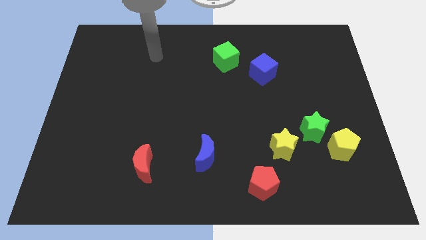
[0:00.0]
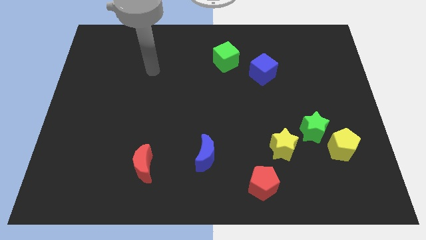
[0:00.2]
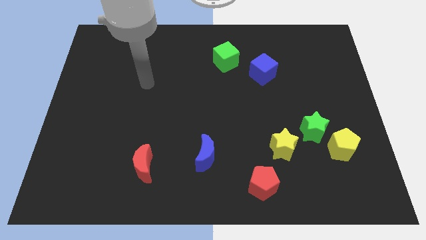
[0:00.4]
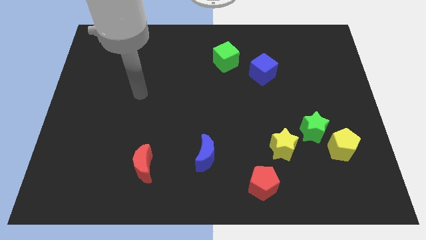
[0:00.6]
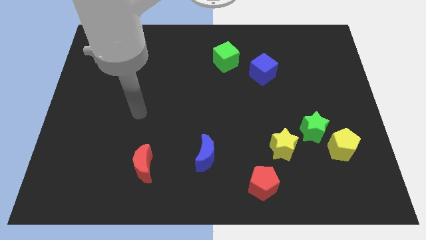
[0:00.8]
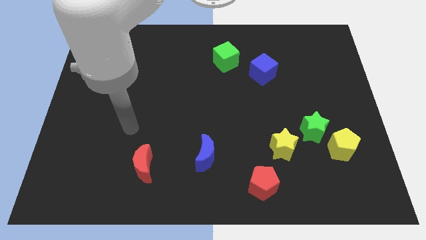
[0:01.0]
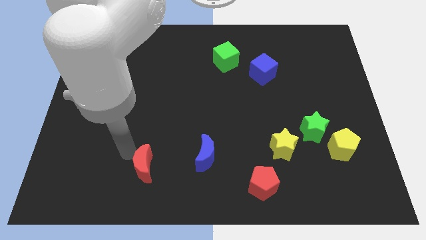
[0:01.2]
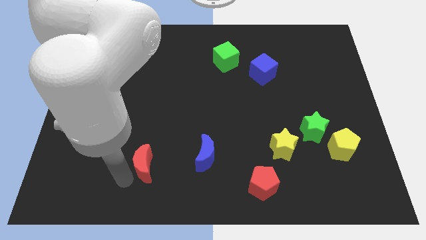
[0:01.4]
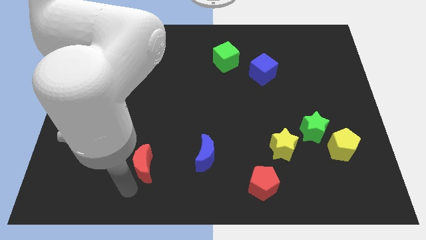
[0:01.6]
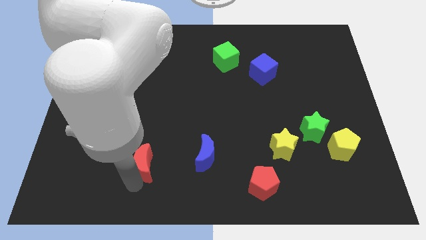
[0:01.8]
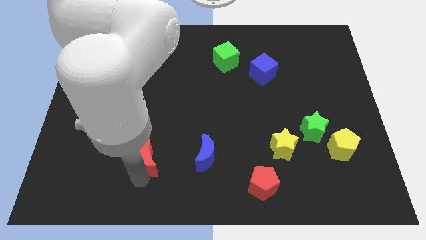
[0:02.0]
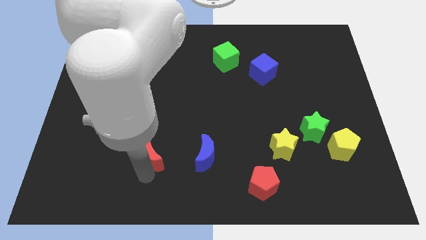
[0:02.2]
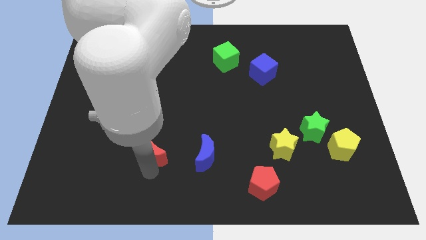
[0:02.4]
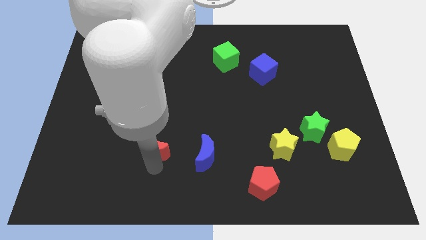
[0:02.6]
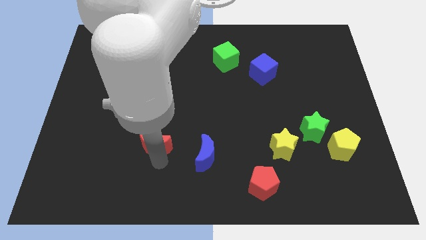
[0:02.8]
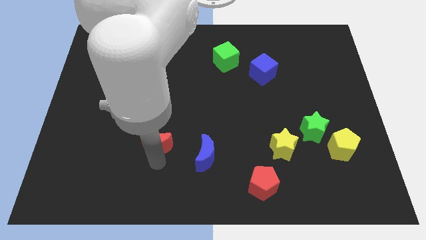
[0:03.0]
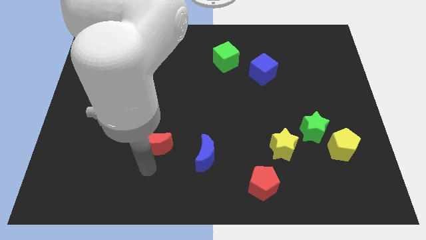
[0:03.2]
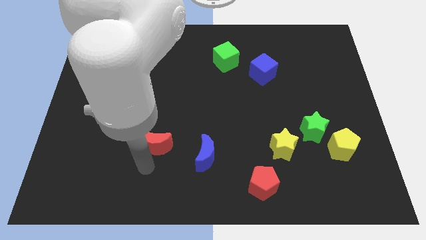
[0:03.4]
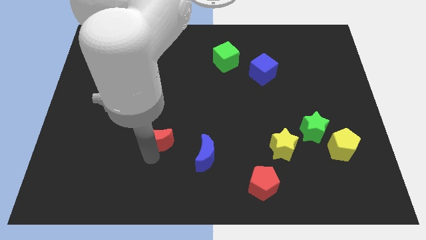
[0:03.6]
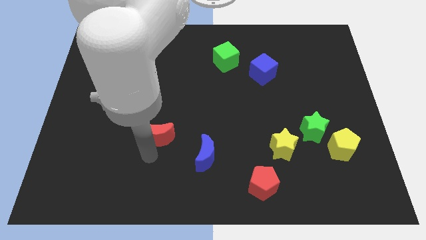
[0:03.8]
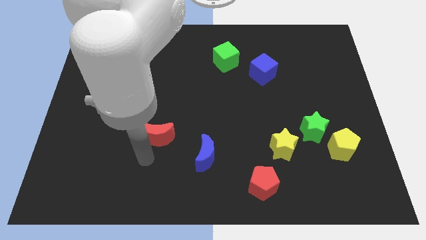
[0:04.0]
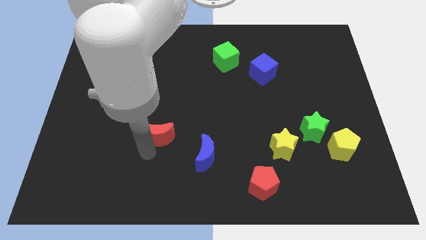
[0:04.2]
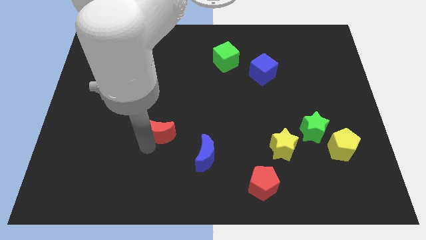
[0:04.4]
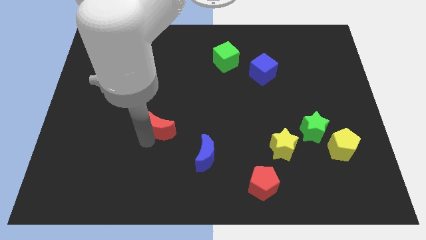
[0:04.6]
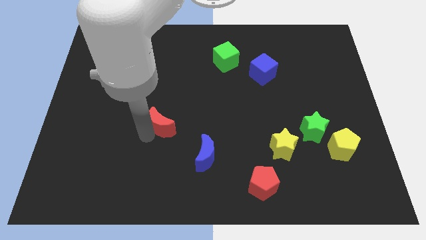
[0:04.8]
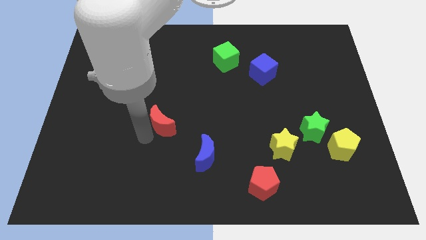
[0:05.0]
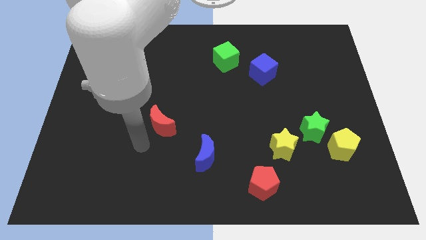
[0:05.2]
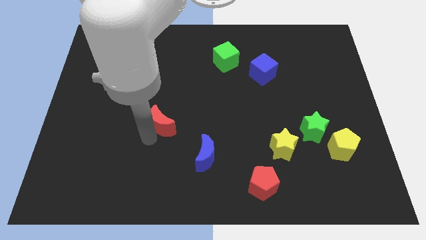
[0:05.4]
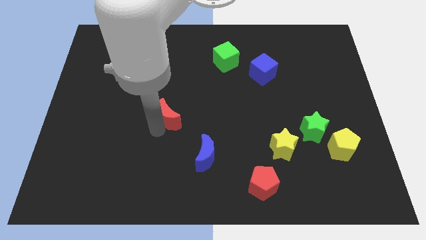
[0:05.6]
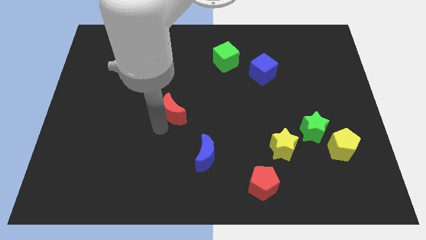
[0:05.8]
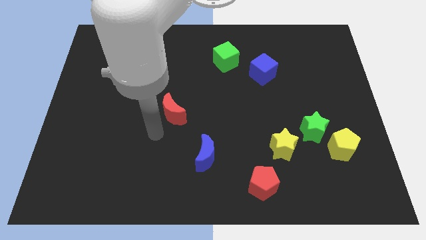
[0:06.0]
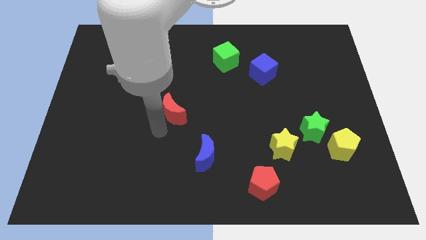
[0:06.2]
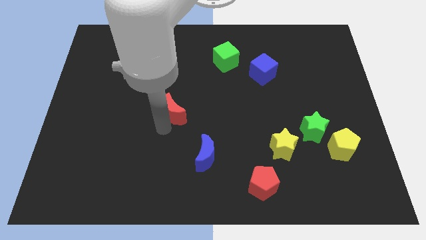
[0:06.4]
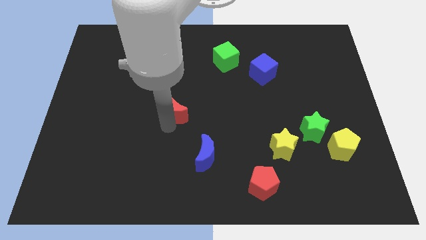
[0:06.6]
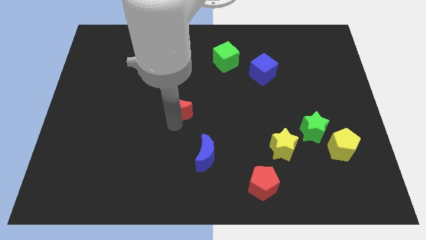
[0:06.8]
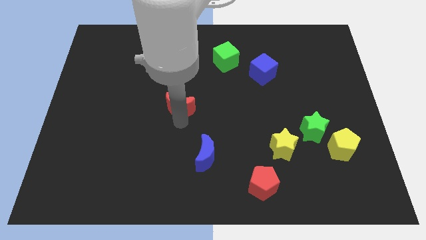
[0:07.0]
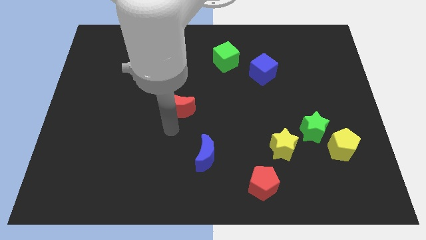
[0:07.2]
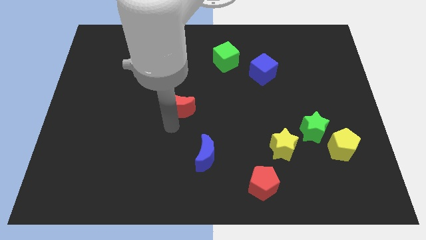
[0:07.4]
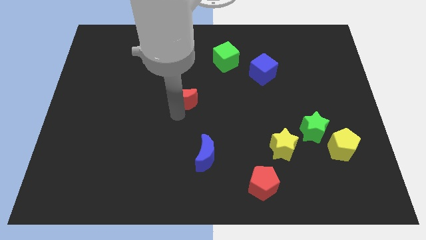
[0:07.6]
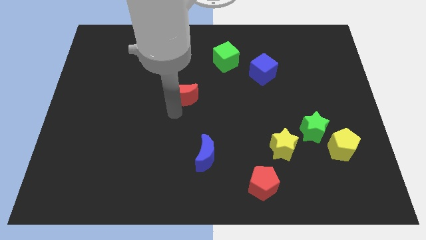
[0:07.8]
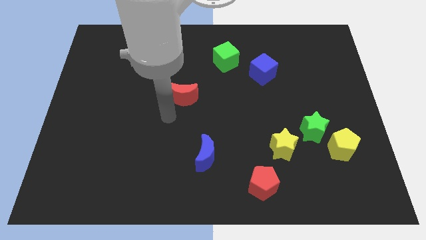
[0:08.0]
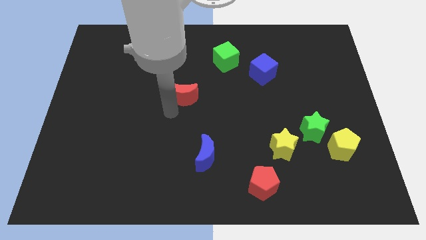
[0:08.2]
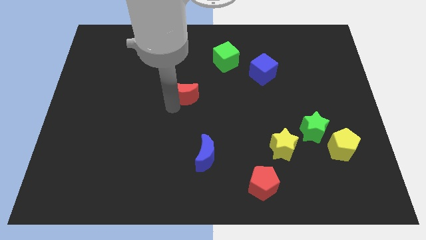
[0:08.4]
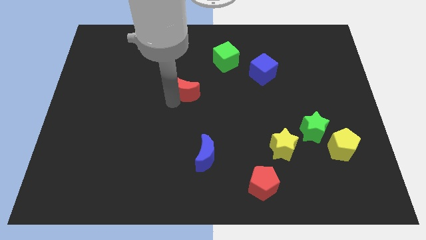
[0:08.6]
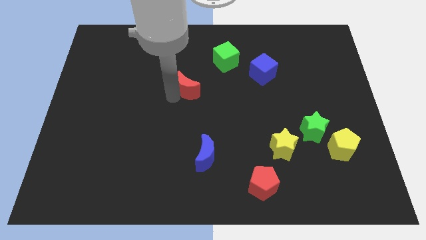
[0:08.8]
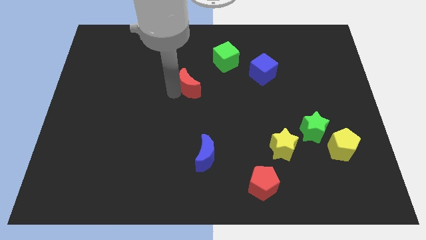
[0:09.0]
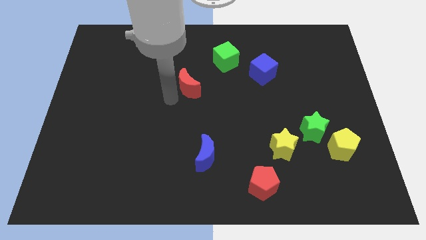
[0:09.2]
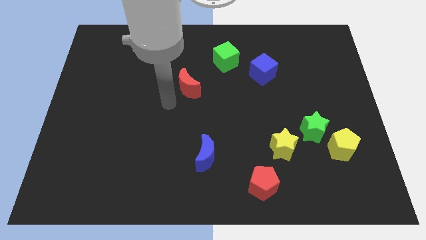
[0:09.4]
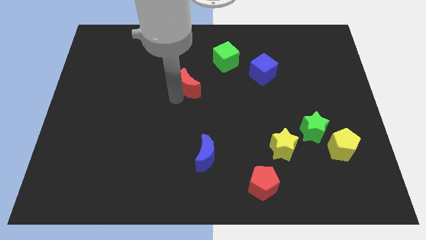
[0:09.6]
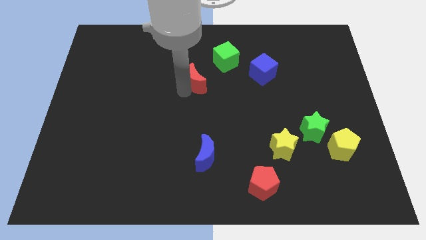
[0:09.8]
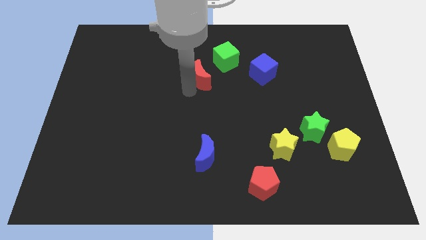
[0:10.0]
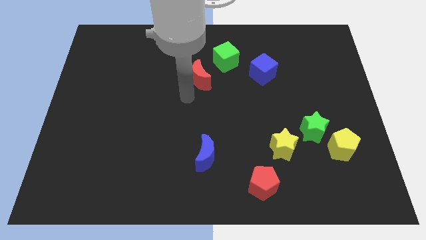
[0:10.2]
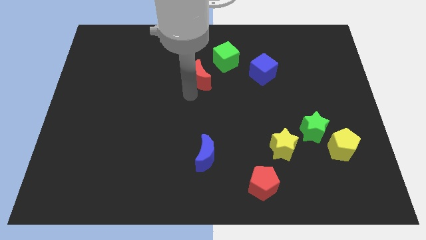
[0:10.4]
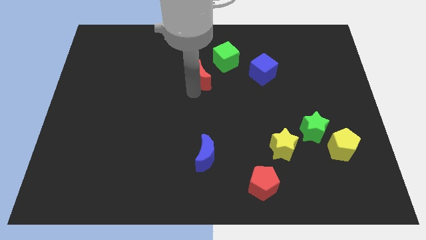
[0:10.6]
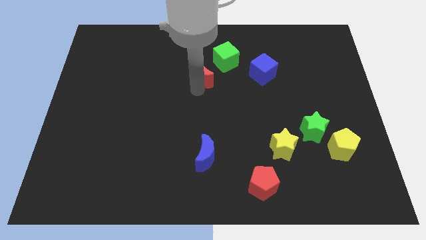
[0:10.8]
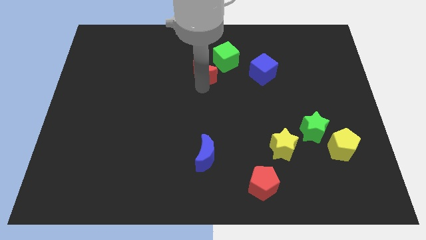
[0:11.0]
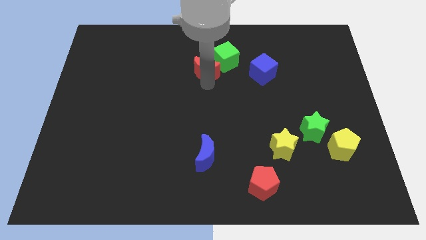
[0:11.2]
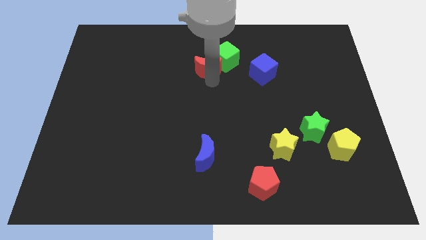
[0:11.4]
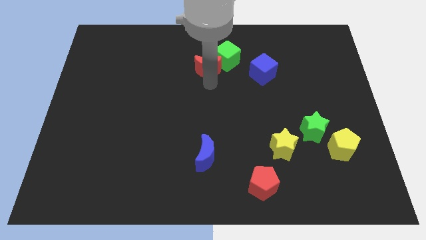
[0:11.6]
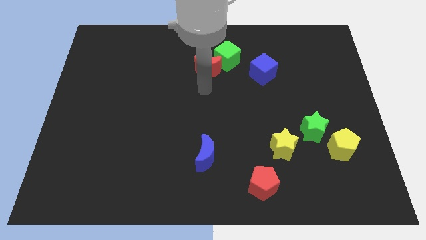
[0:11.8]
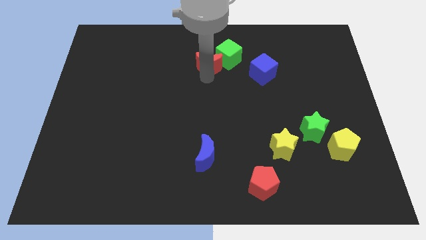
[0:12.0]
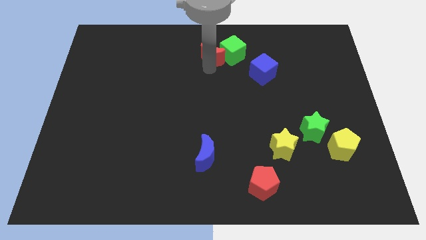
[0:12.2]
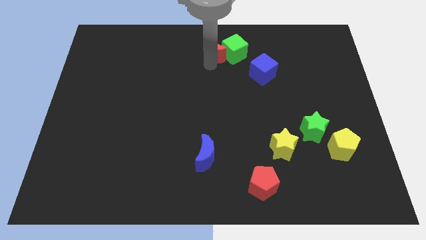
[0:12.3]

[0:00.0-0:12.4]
slide the red moon to the top side

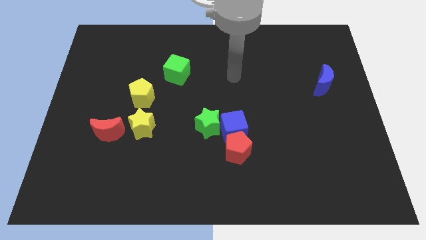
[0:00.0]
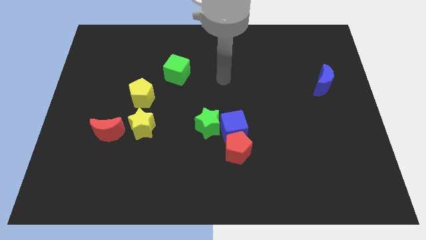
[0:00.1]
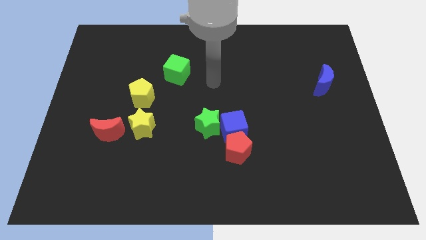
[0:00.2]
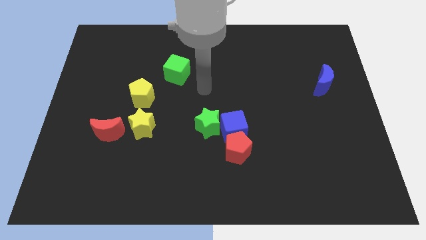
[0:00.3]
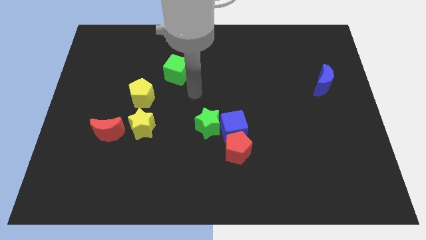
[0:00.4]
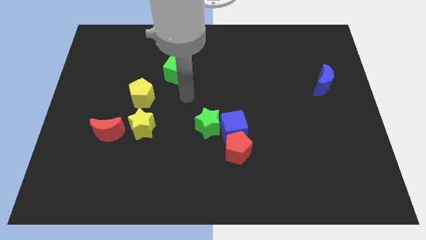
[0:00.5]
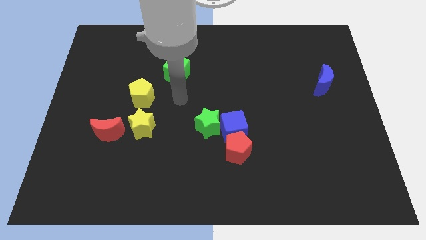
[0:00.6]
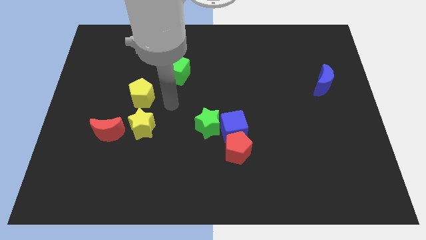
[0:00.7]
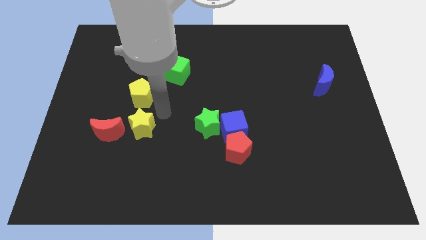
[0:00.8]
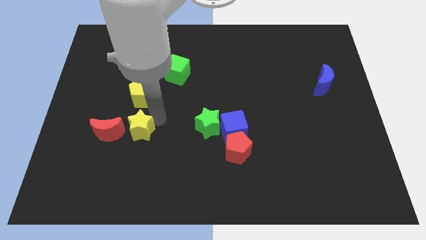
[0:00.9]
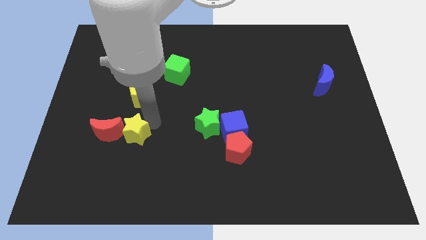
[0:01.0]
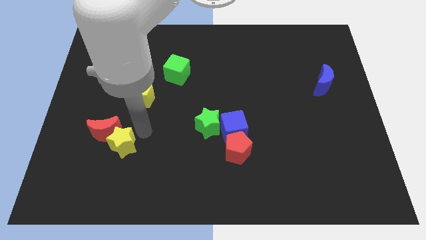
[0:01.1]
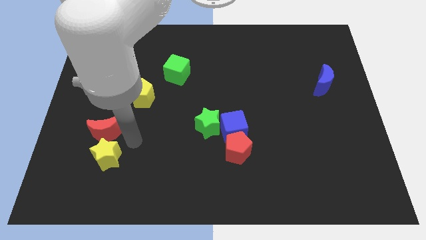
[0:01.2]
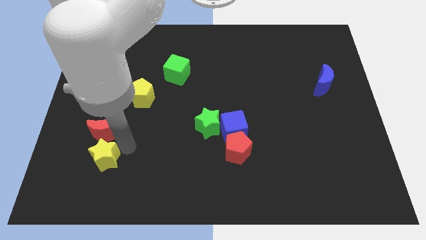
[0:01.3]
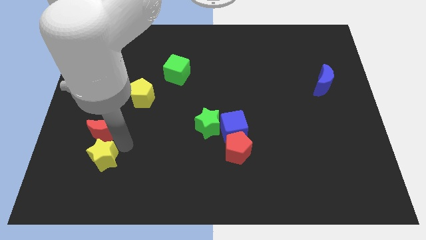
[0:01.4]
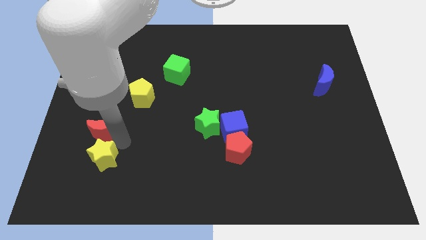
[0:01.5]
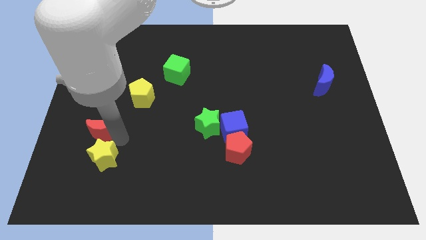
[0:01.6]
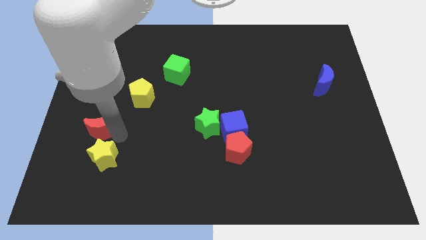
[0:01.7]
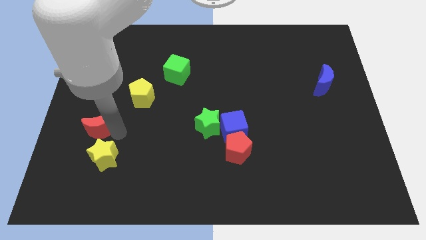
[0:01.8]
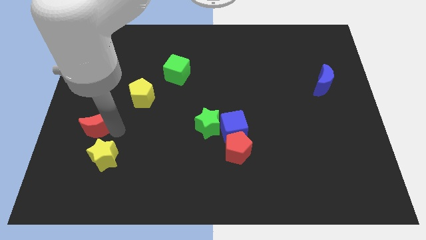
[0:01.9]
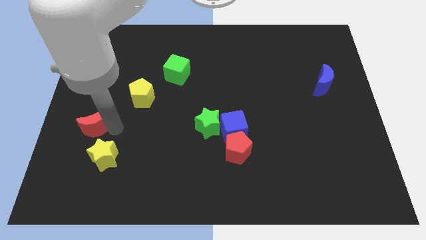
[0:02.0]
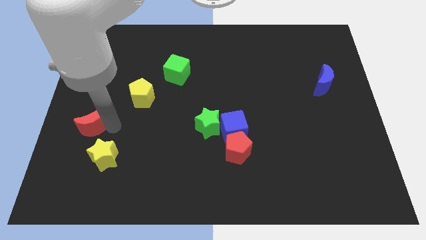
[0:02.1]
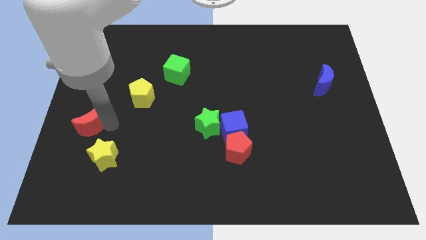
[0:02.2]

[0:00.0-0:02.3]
slide the red moon to the left side
